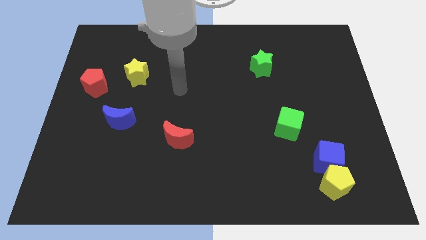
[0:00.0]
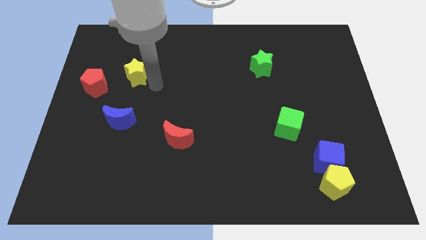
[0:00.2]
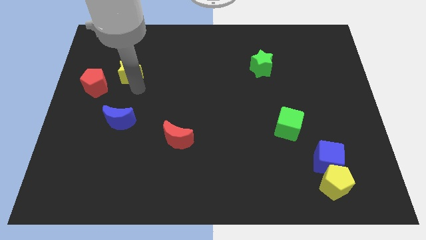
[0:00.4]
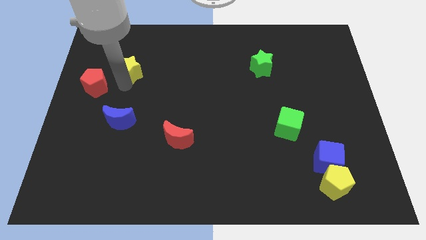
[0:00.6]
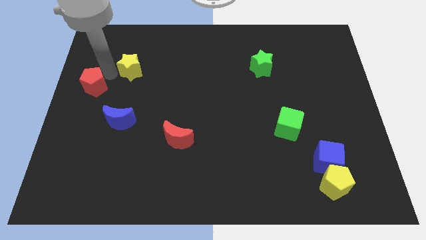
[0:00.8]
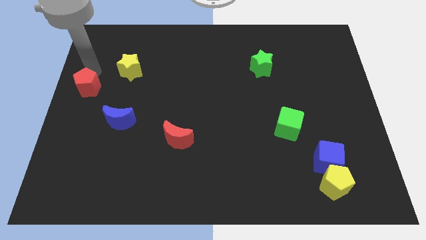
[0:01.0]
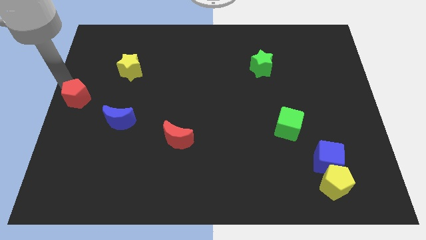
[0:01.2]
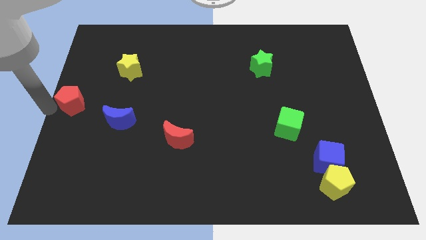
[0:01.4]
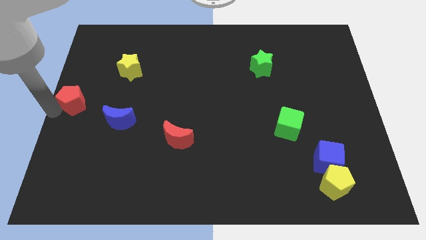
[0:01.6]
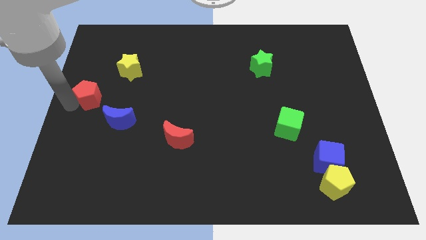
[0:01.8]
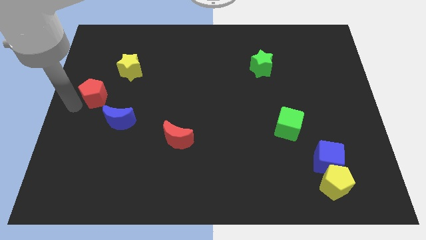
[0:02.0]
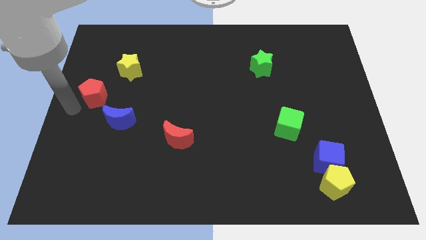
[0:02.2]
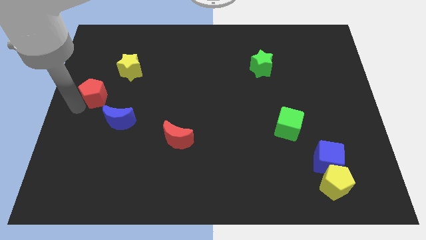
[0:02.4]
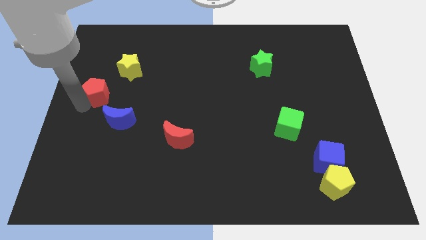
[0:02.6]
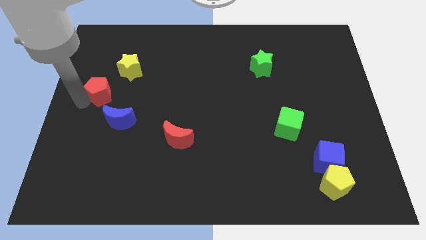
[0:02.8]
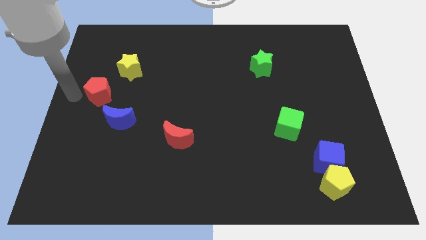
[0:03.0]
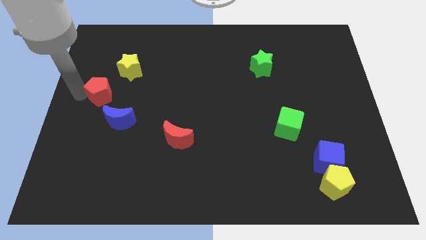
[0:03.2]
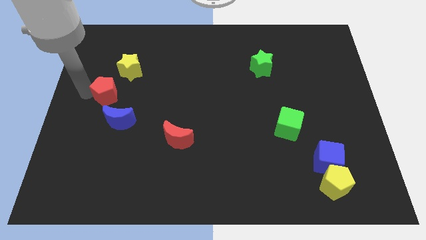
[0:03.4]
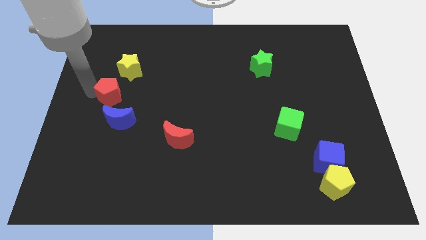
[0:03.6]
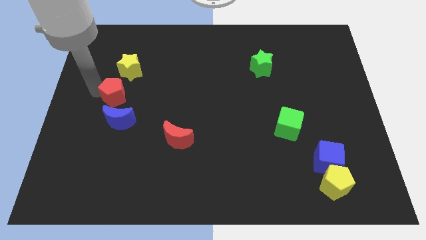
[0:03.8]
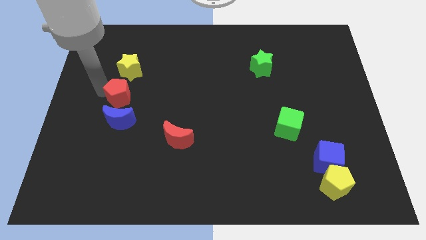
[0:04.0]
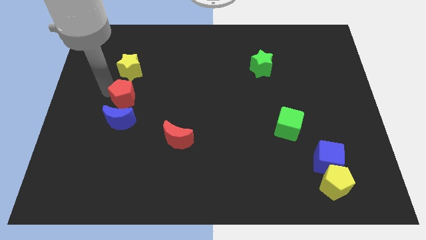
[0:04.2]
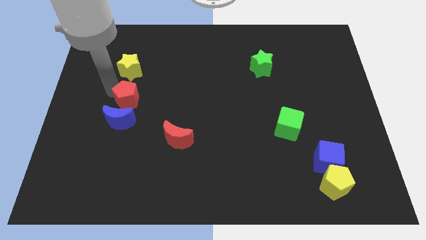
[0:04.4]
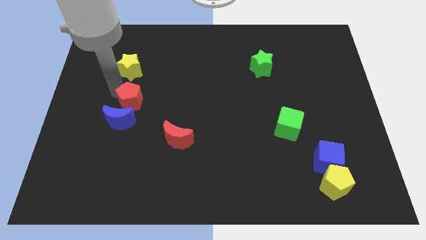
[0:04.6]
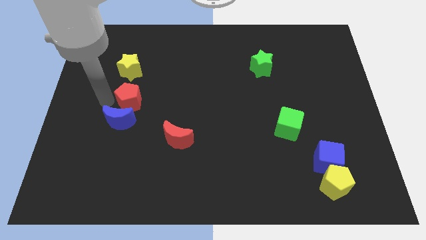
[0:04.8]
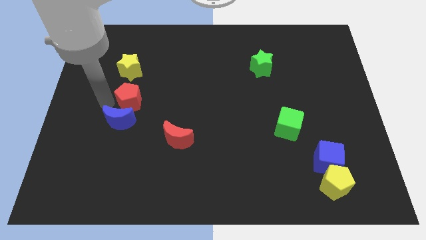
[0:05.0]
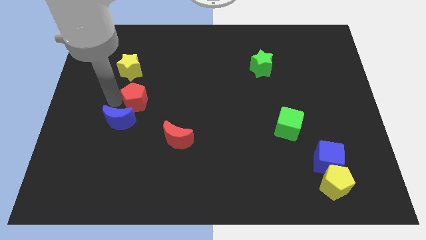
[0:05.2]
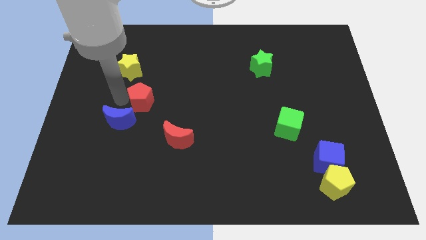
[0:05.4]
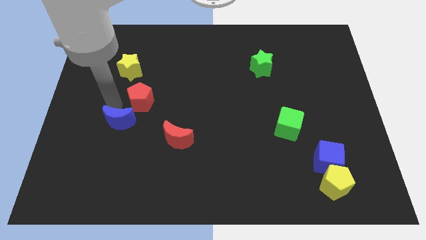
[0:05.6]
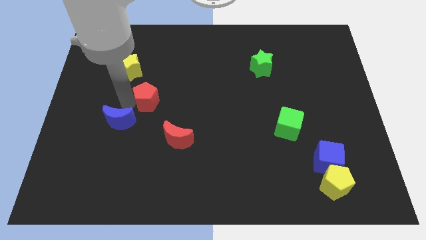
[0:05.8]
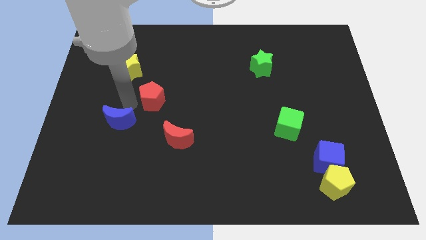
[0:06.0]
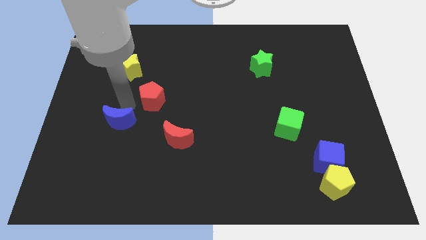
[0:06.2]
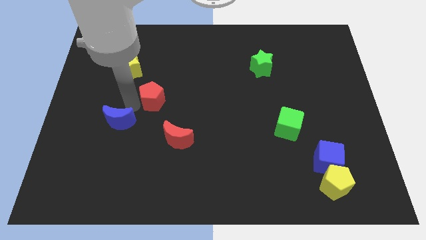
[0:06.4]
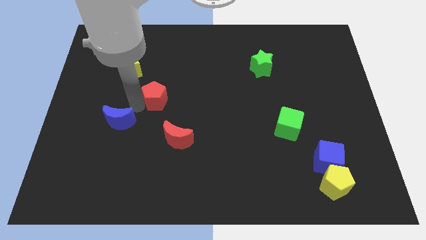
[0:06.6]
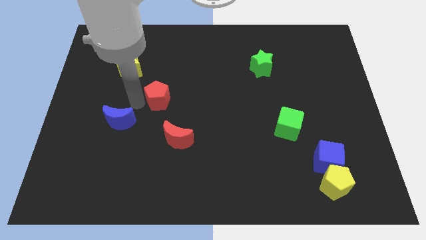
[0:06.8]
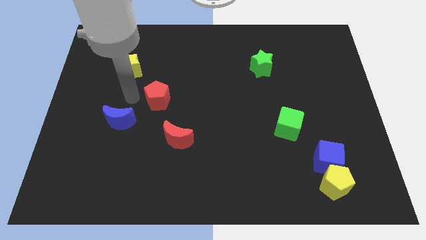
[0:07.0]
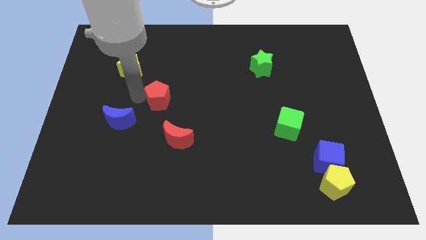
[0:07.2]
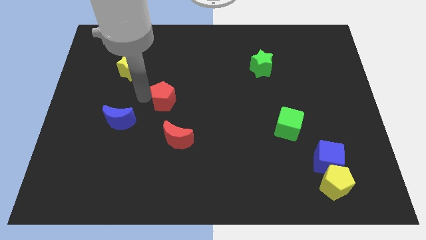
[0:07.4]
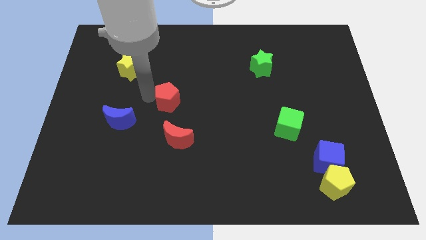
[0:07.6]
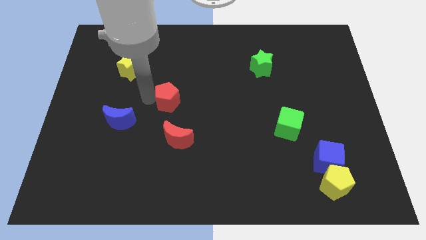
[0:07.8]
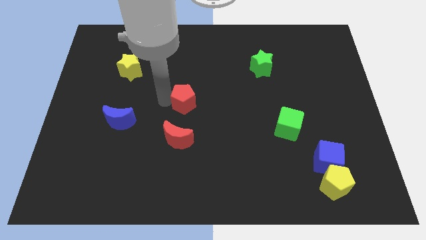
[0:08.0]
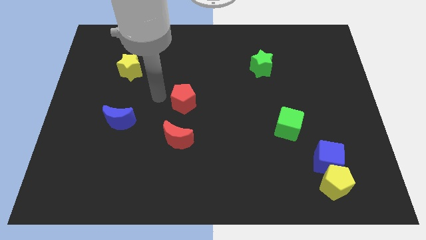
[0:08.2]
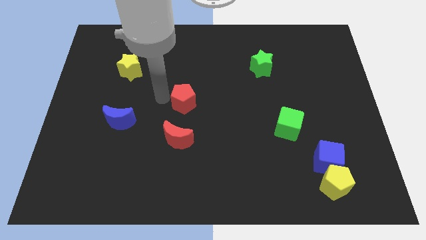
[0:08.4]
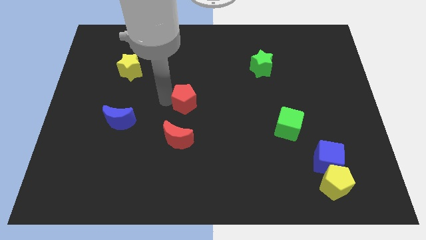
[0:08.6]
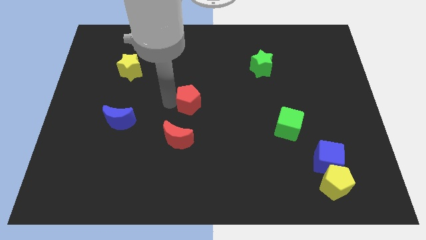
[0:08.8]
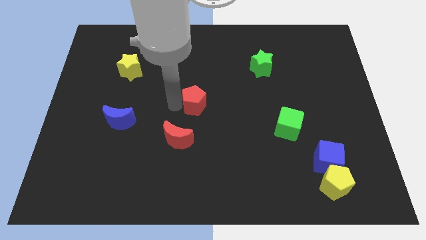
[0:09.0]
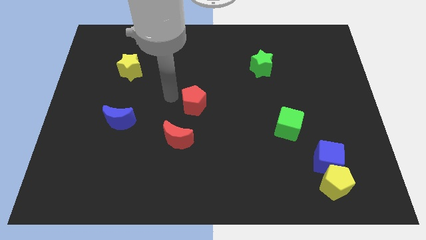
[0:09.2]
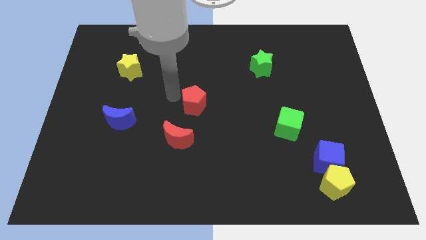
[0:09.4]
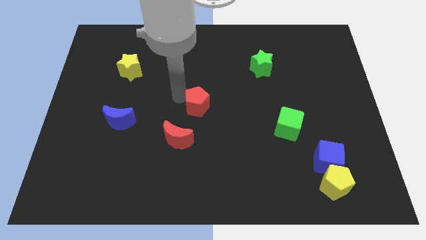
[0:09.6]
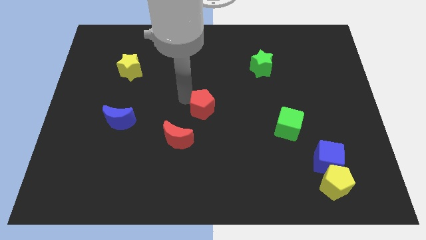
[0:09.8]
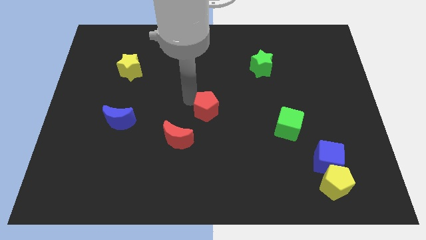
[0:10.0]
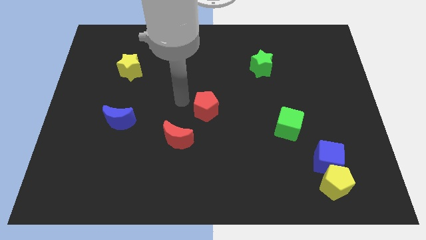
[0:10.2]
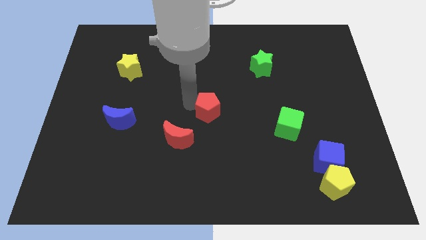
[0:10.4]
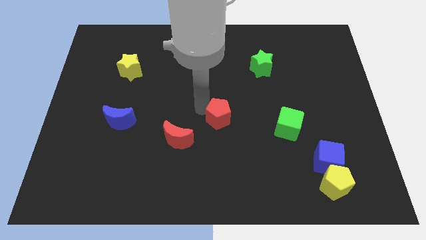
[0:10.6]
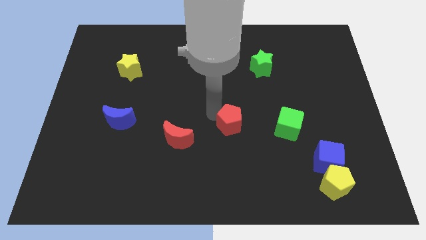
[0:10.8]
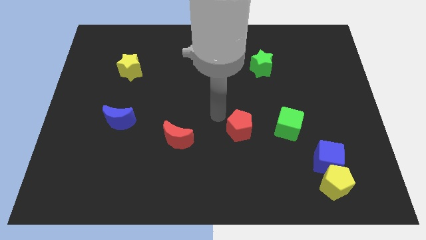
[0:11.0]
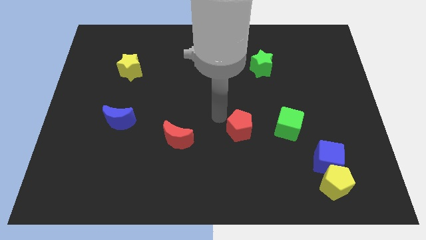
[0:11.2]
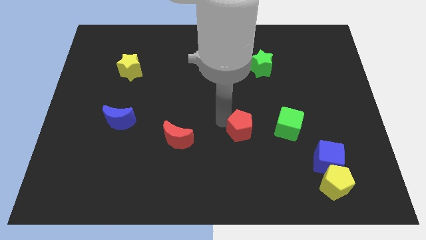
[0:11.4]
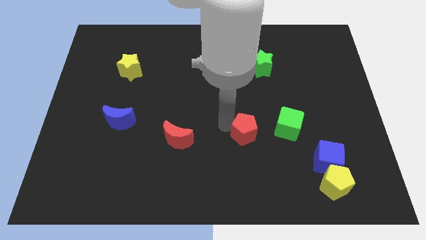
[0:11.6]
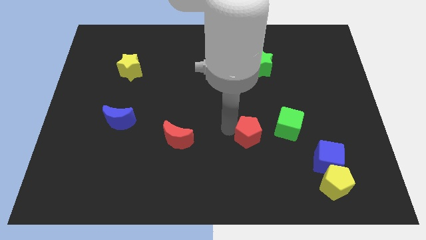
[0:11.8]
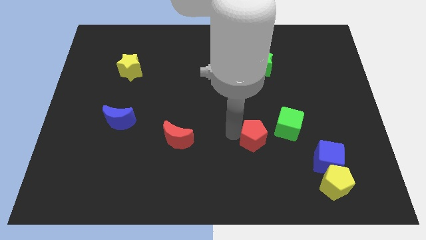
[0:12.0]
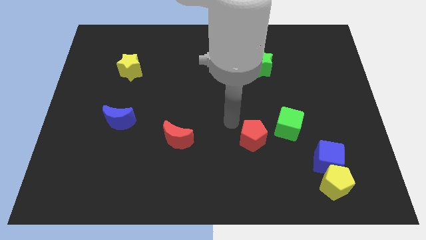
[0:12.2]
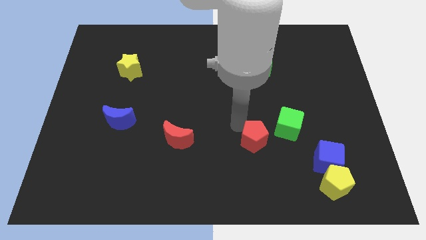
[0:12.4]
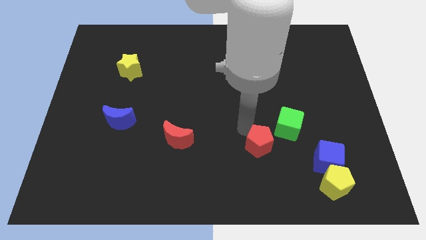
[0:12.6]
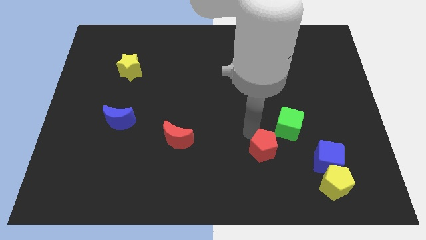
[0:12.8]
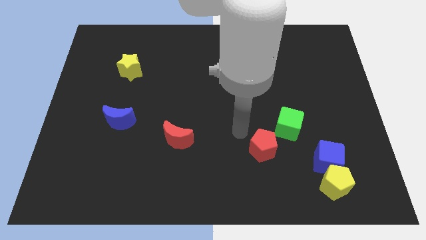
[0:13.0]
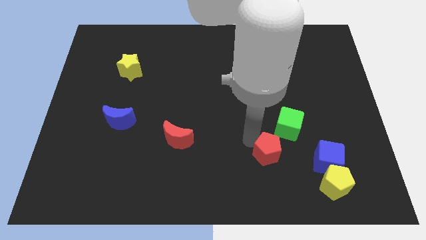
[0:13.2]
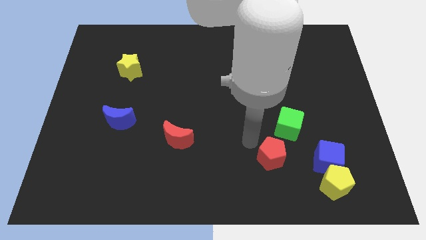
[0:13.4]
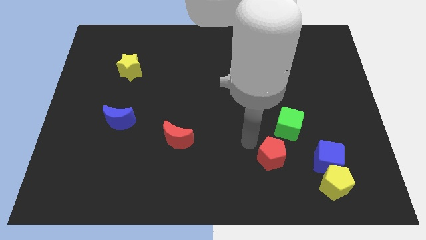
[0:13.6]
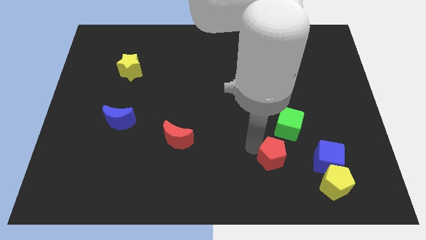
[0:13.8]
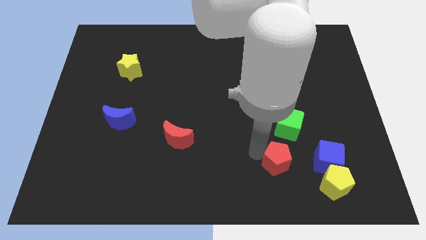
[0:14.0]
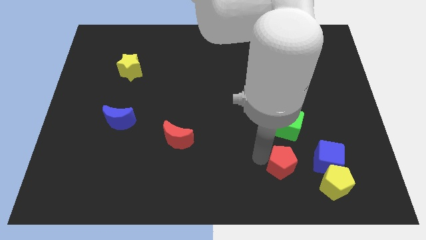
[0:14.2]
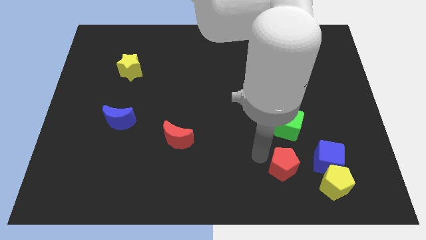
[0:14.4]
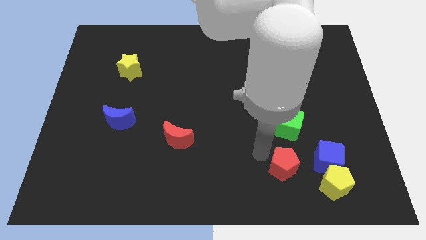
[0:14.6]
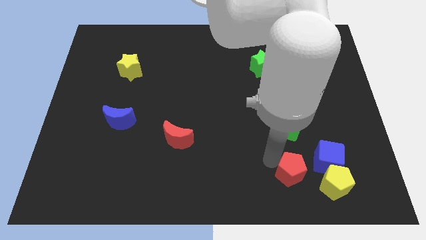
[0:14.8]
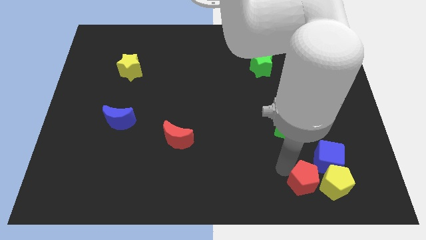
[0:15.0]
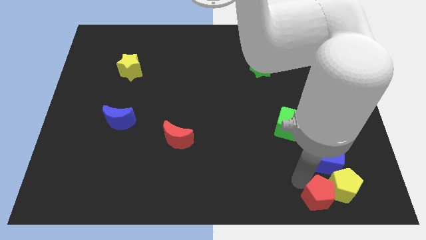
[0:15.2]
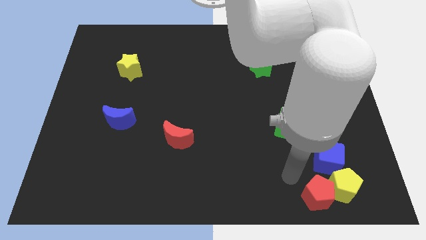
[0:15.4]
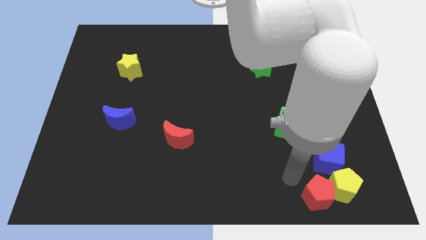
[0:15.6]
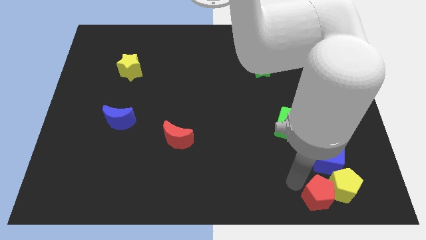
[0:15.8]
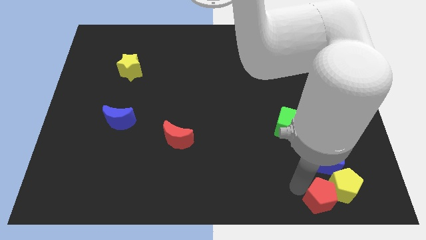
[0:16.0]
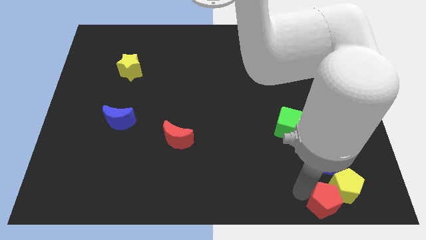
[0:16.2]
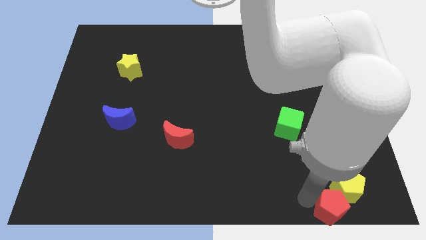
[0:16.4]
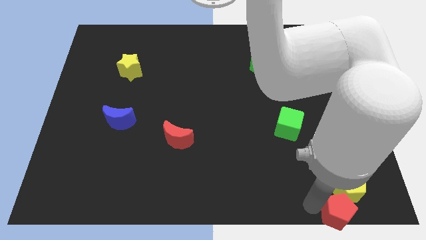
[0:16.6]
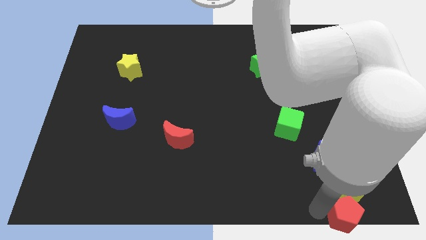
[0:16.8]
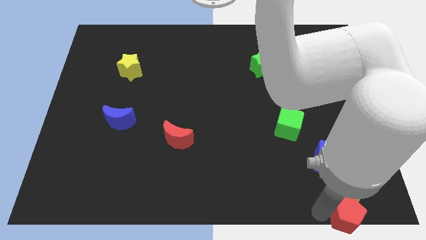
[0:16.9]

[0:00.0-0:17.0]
push the red pentagon to the bottom right
